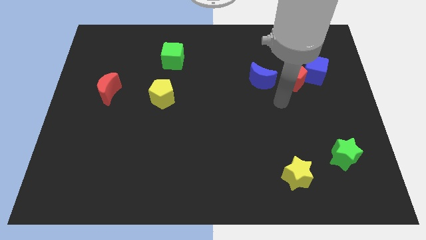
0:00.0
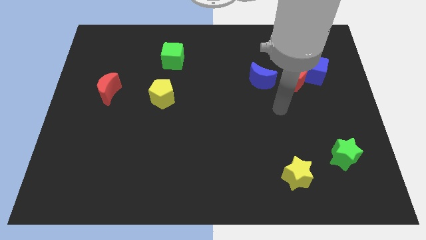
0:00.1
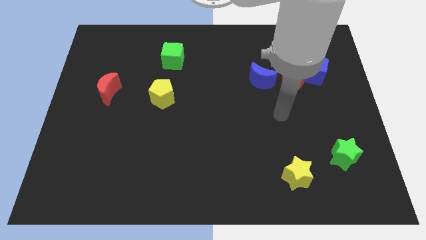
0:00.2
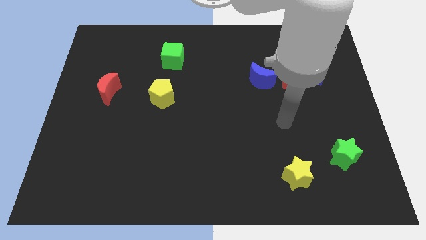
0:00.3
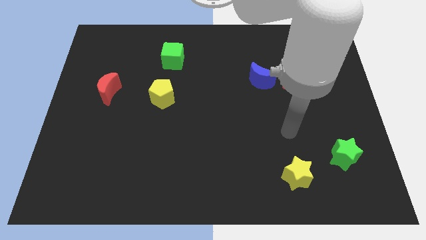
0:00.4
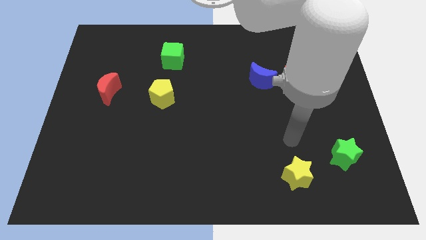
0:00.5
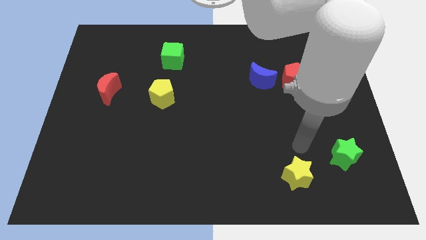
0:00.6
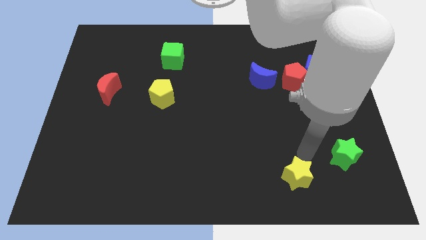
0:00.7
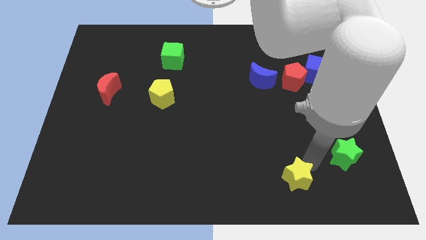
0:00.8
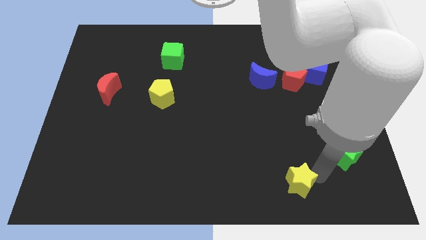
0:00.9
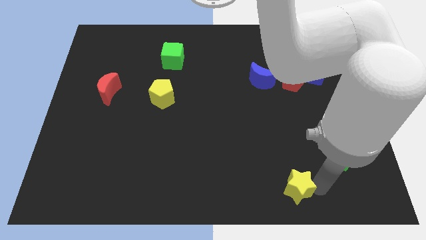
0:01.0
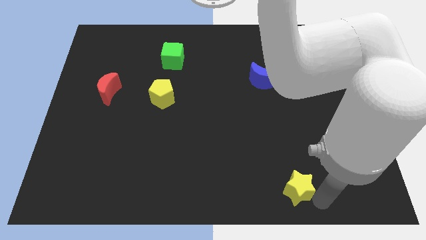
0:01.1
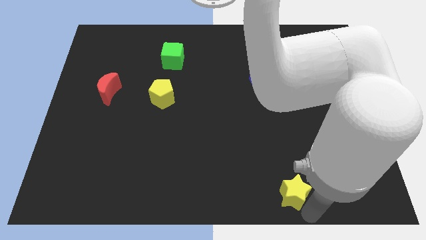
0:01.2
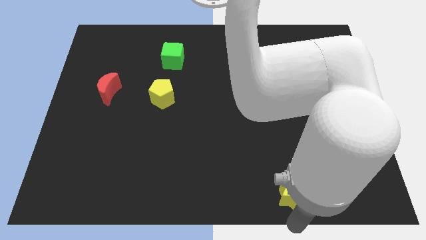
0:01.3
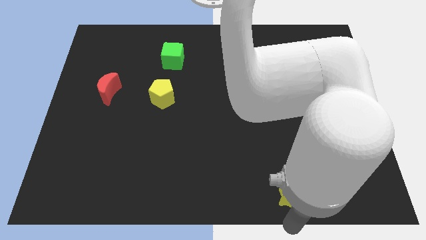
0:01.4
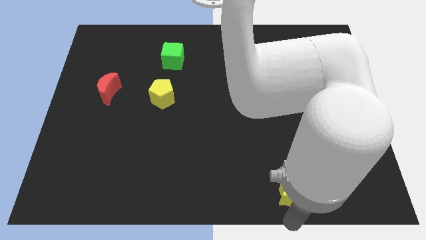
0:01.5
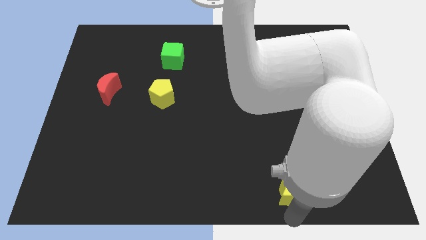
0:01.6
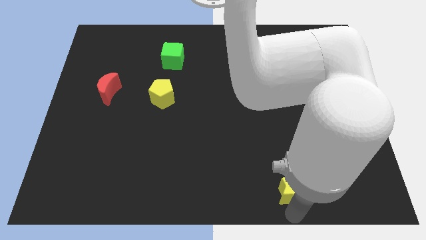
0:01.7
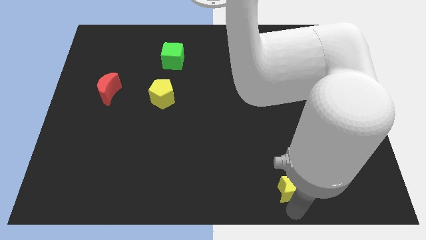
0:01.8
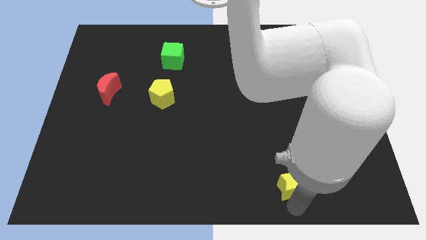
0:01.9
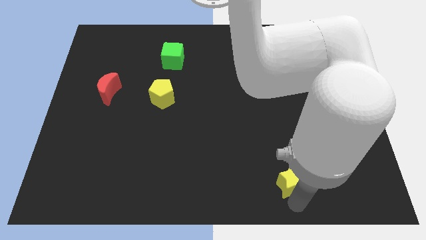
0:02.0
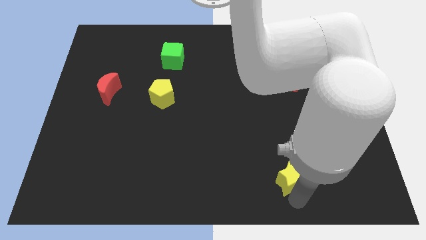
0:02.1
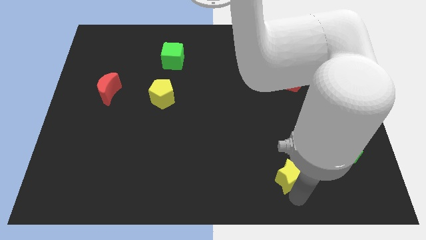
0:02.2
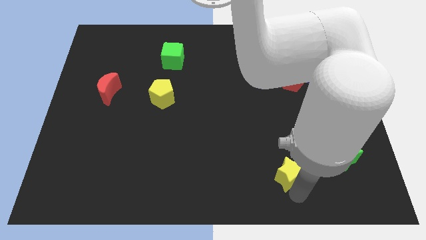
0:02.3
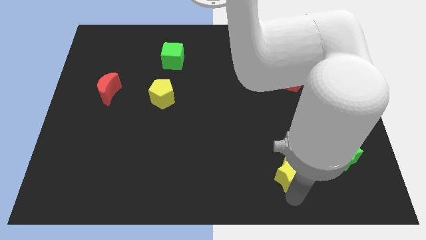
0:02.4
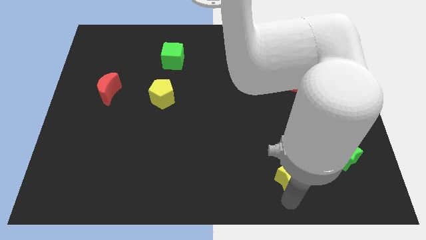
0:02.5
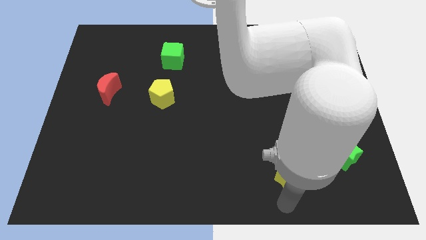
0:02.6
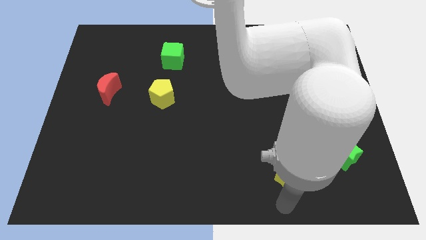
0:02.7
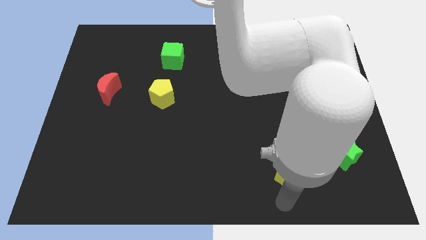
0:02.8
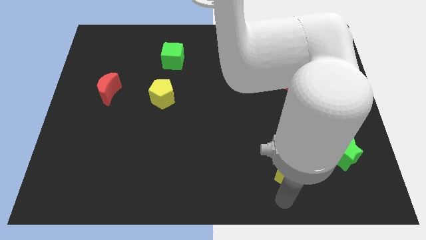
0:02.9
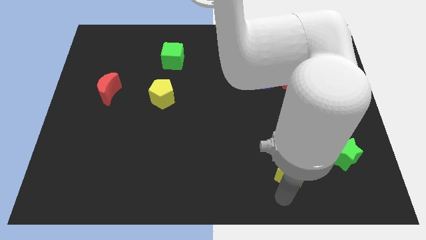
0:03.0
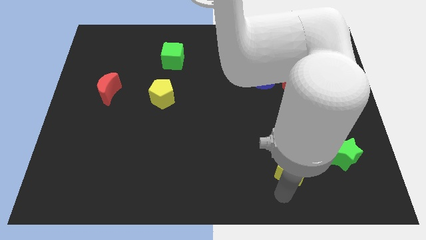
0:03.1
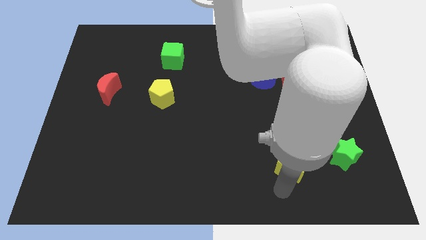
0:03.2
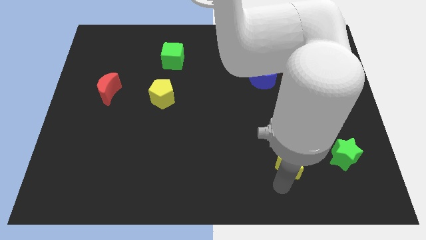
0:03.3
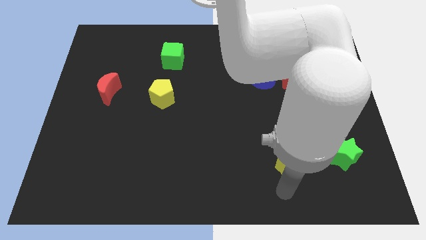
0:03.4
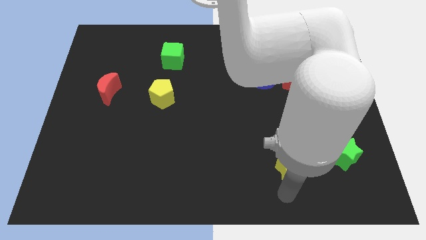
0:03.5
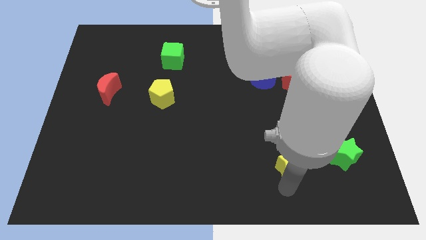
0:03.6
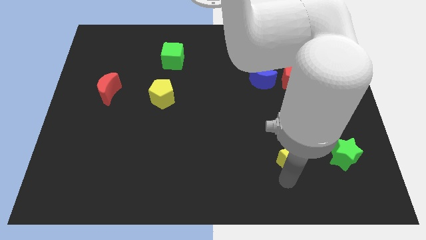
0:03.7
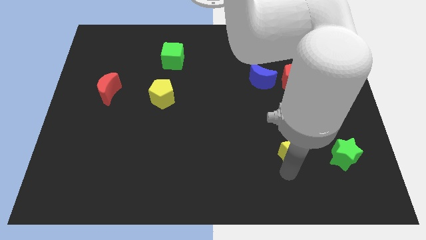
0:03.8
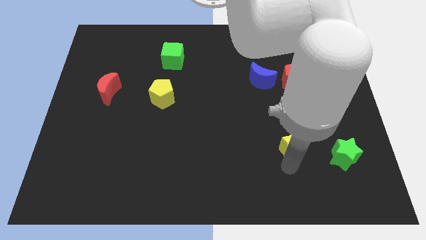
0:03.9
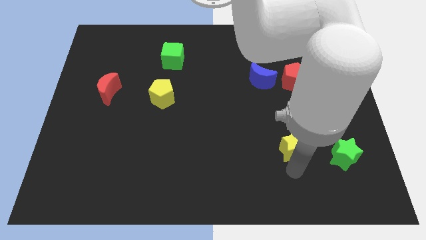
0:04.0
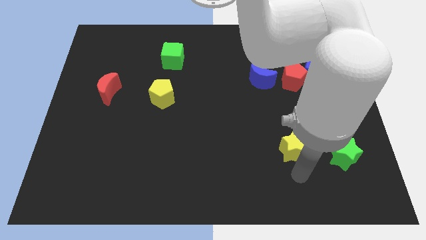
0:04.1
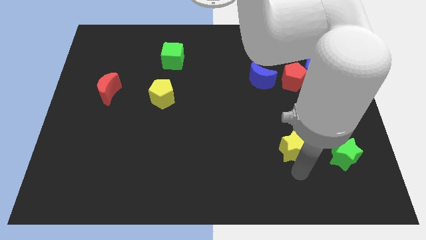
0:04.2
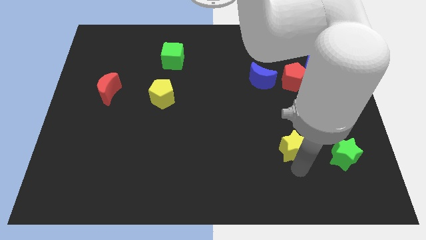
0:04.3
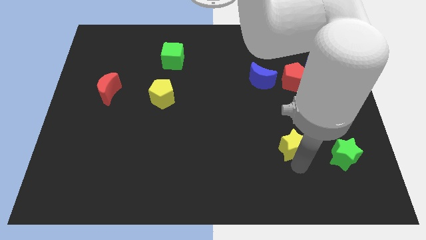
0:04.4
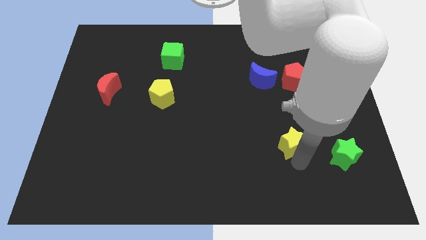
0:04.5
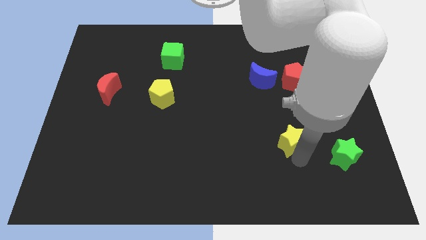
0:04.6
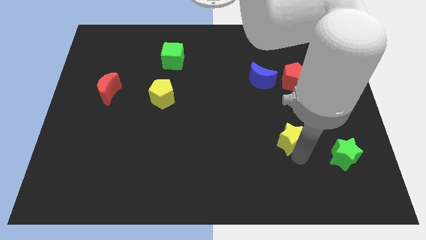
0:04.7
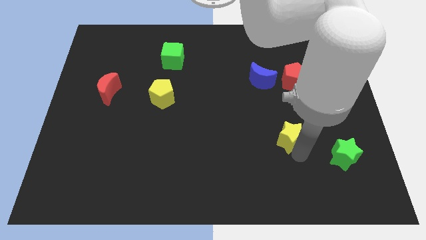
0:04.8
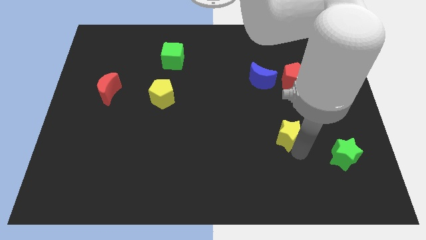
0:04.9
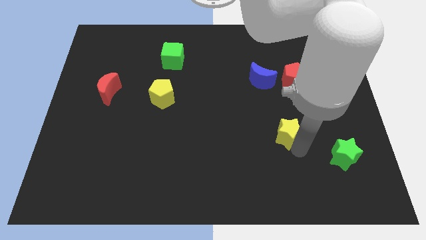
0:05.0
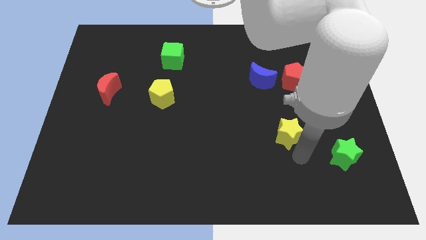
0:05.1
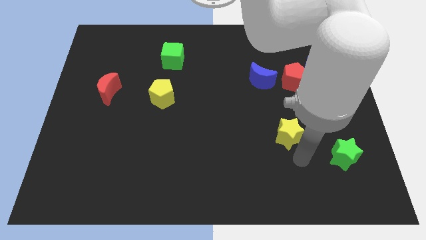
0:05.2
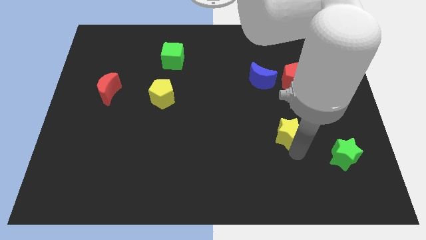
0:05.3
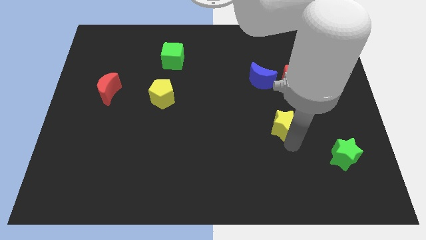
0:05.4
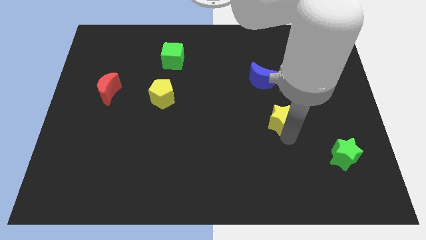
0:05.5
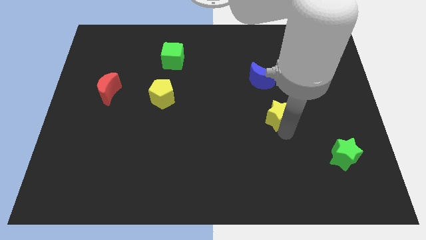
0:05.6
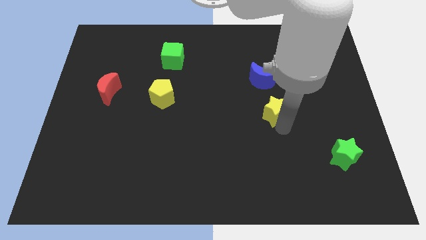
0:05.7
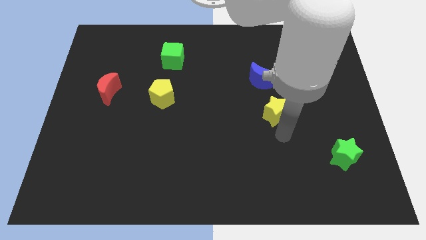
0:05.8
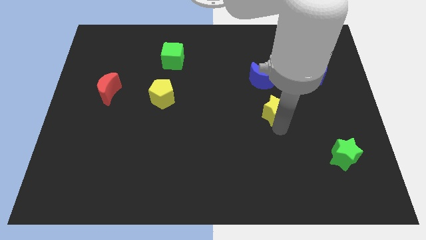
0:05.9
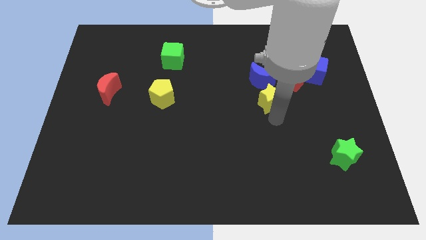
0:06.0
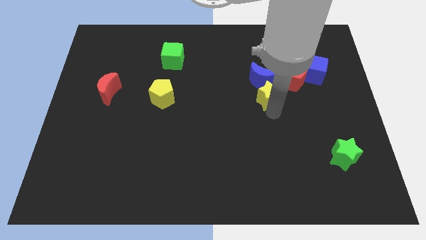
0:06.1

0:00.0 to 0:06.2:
move the yellow star next to the blue moon
